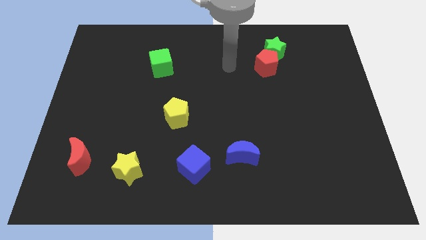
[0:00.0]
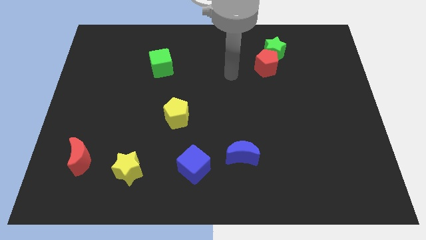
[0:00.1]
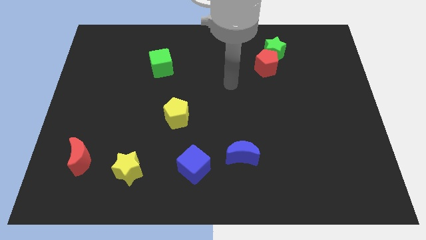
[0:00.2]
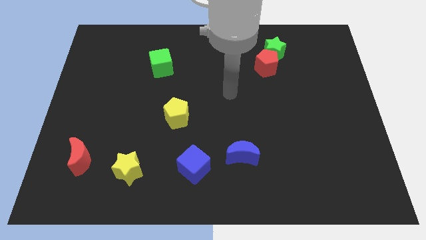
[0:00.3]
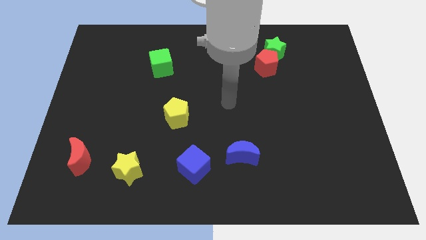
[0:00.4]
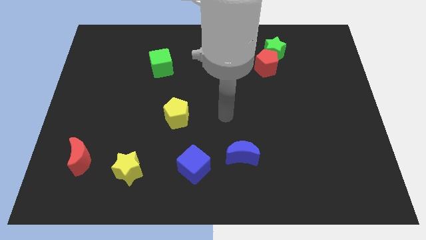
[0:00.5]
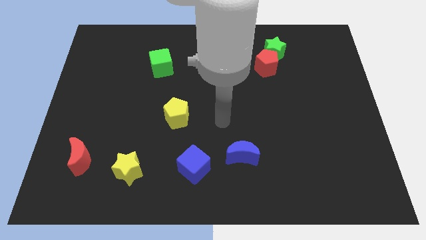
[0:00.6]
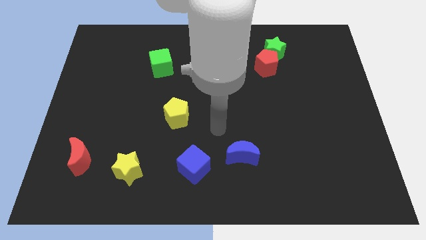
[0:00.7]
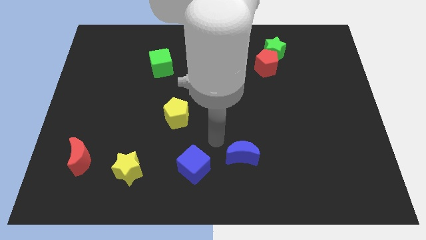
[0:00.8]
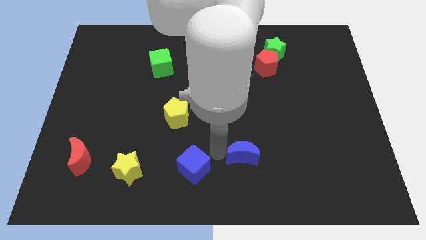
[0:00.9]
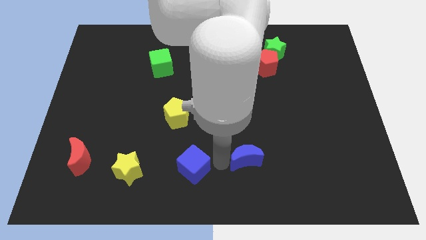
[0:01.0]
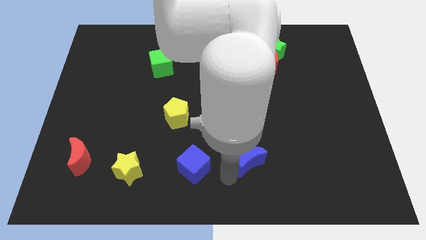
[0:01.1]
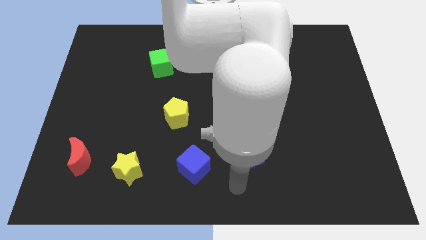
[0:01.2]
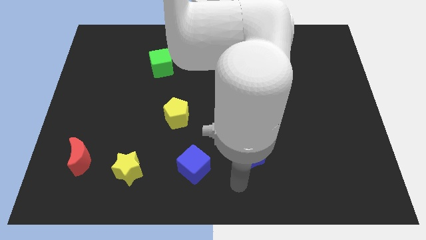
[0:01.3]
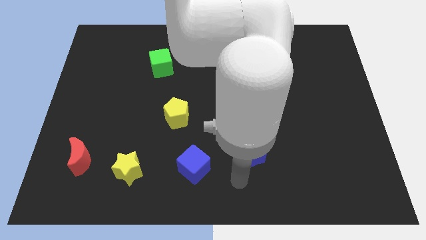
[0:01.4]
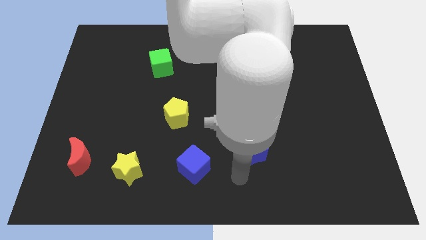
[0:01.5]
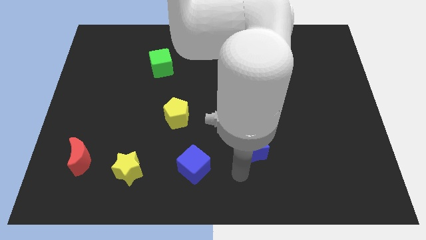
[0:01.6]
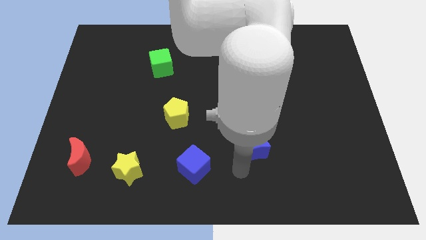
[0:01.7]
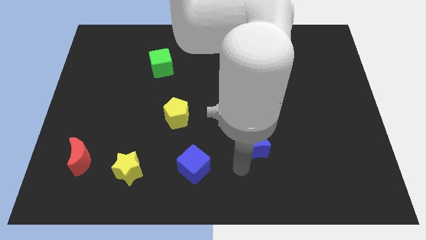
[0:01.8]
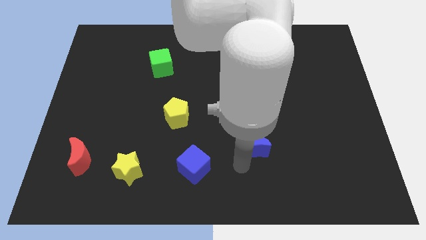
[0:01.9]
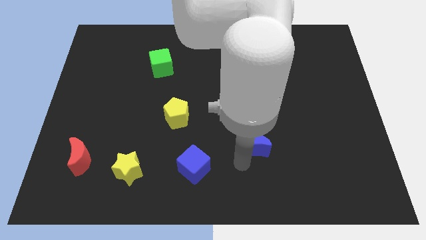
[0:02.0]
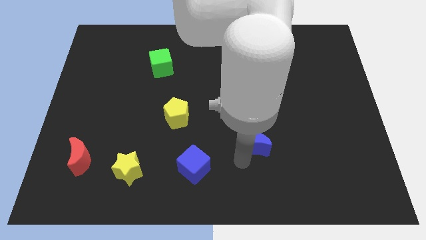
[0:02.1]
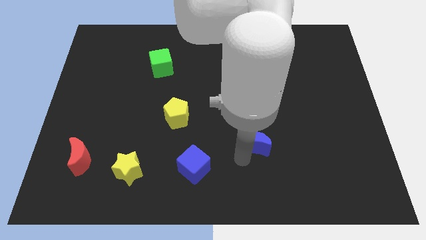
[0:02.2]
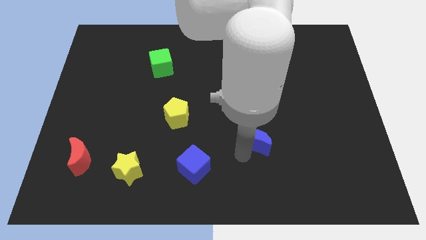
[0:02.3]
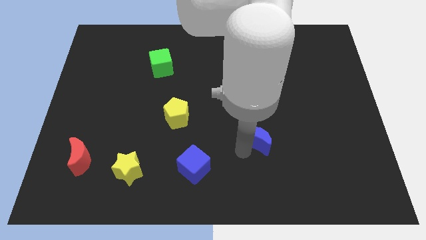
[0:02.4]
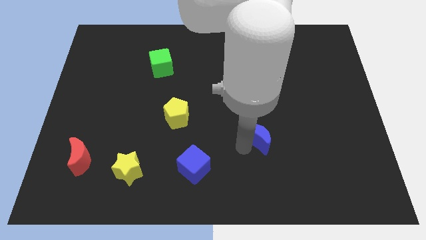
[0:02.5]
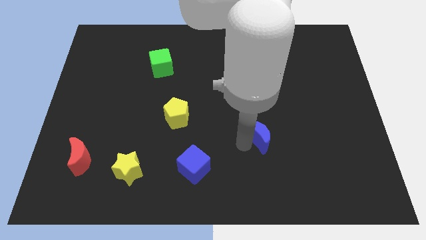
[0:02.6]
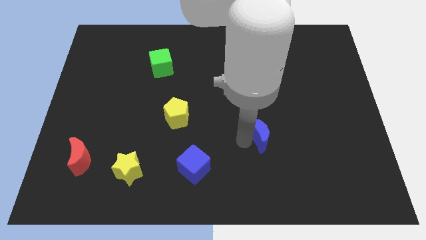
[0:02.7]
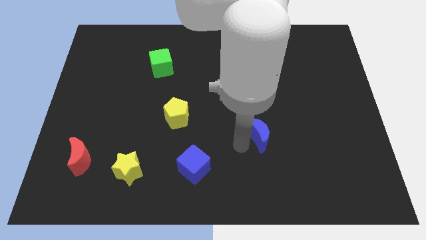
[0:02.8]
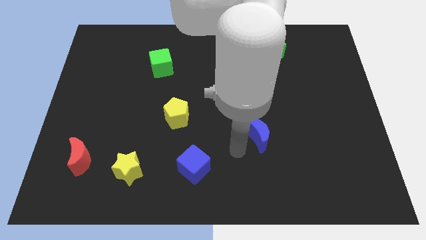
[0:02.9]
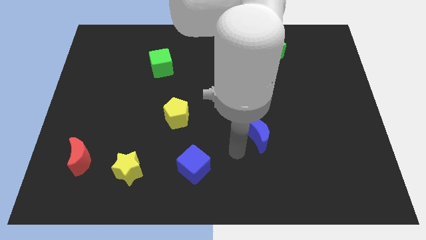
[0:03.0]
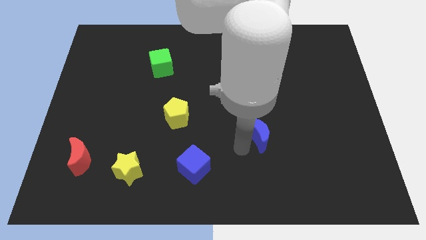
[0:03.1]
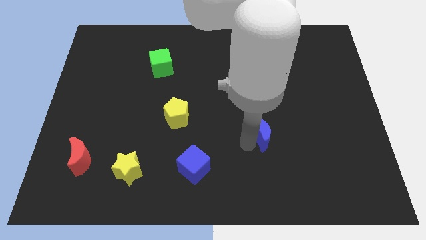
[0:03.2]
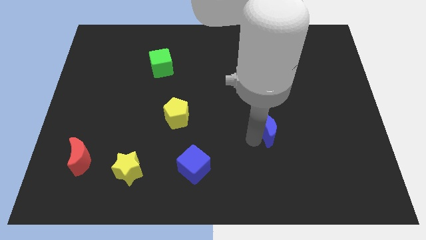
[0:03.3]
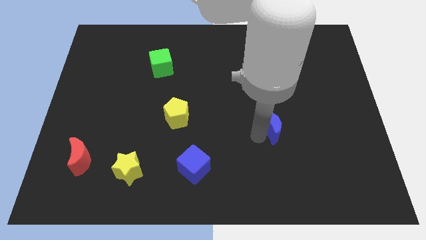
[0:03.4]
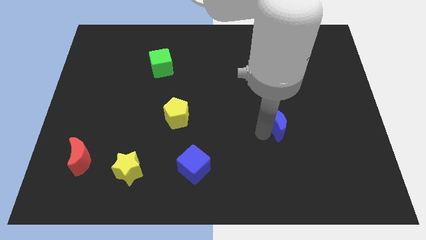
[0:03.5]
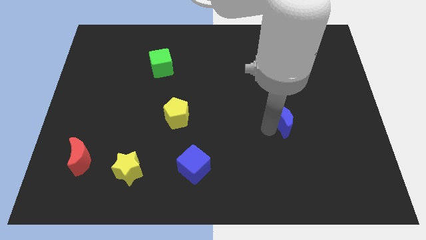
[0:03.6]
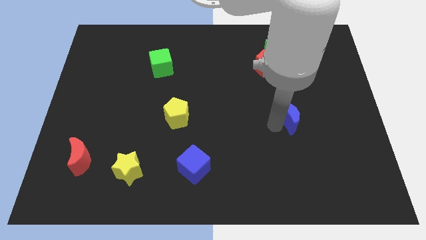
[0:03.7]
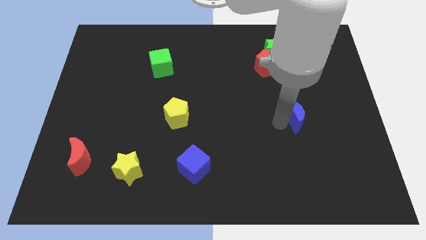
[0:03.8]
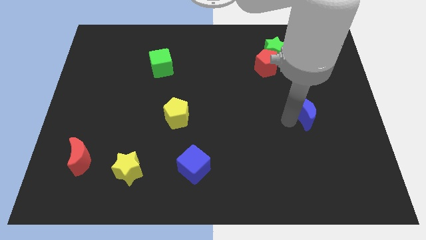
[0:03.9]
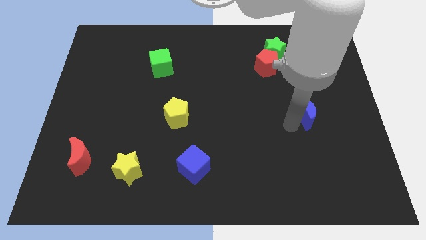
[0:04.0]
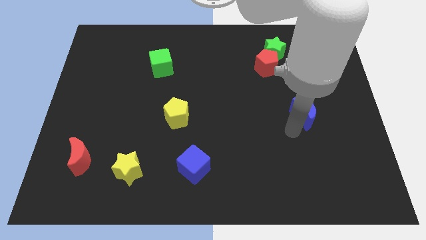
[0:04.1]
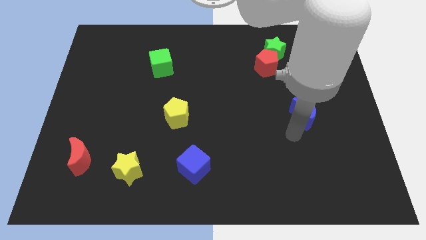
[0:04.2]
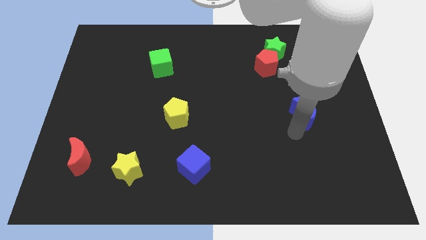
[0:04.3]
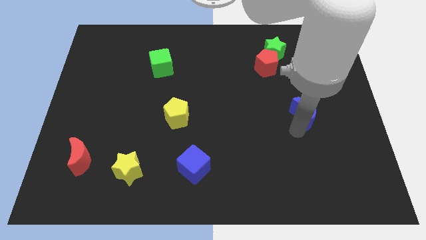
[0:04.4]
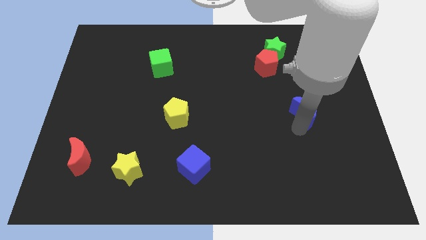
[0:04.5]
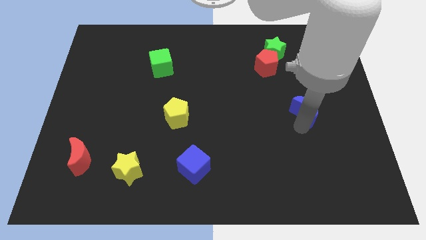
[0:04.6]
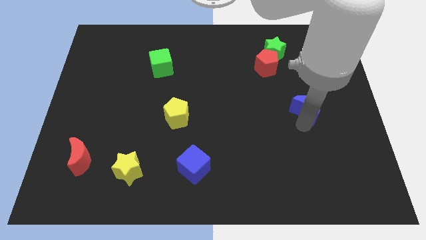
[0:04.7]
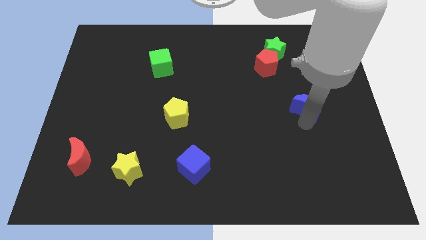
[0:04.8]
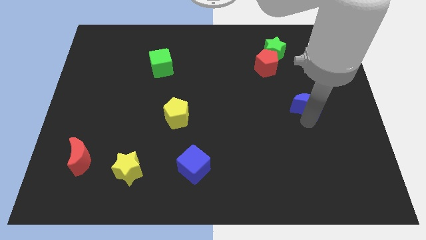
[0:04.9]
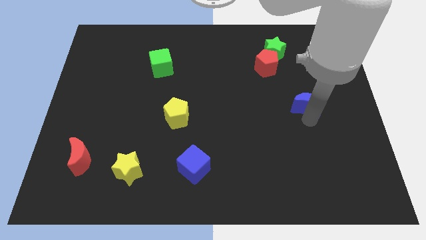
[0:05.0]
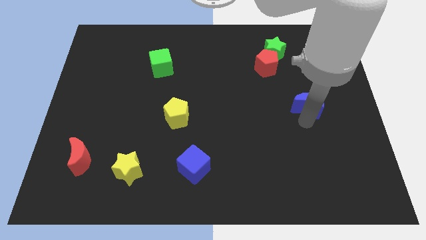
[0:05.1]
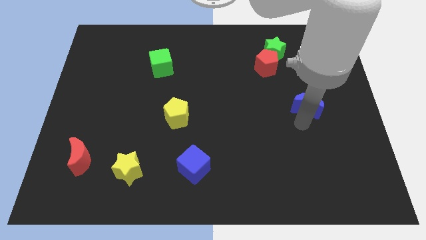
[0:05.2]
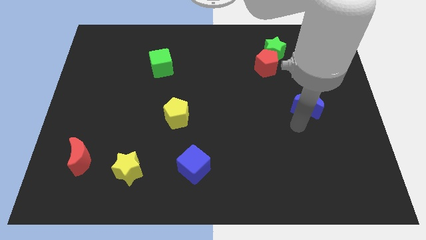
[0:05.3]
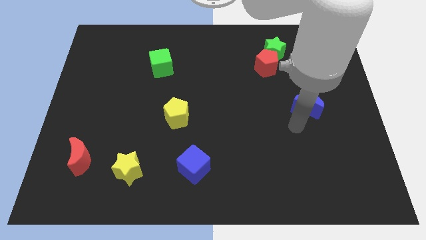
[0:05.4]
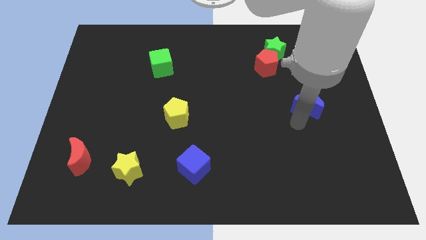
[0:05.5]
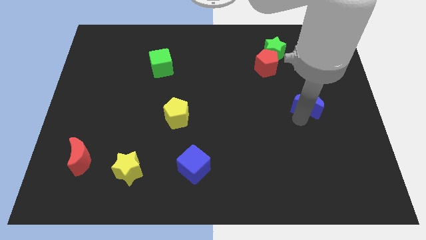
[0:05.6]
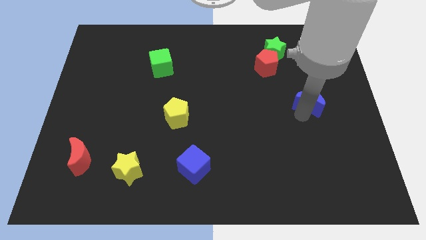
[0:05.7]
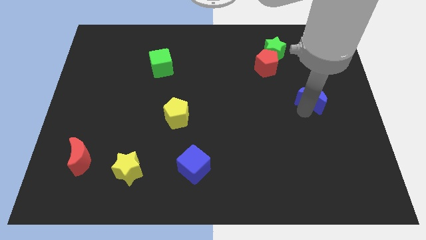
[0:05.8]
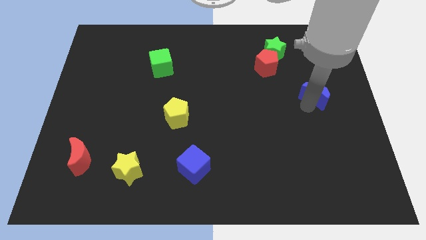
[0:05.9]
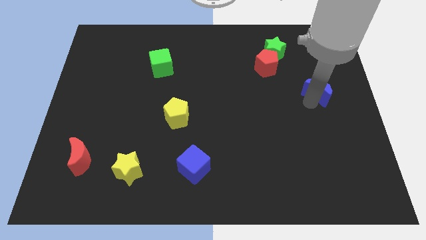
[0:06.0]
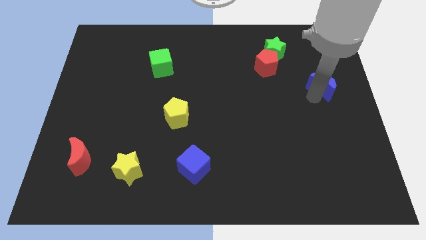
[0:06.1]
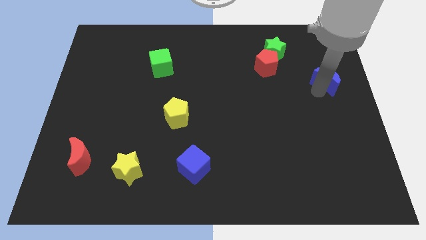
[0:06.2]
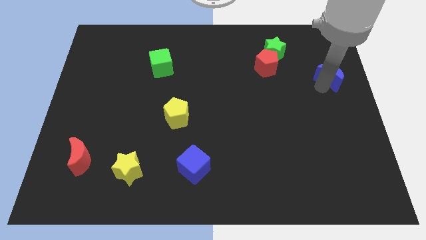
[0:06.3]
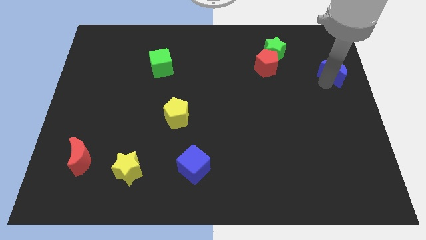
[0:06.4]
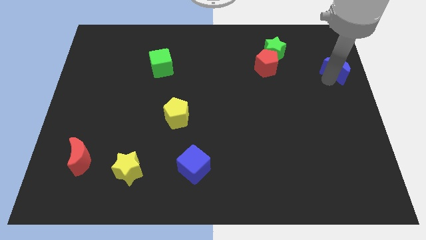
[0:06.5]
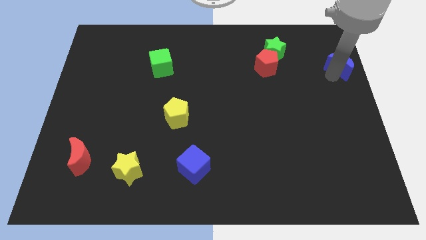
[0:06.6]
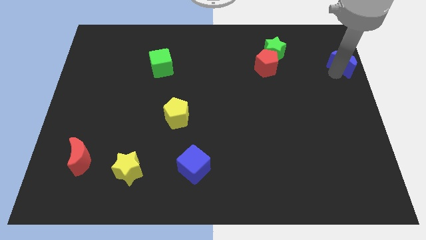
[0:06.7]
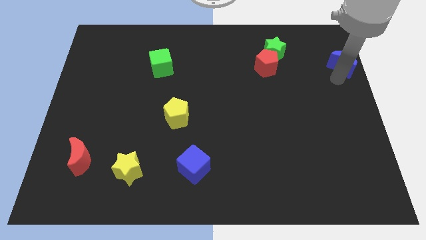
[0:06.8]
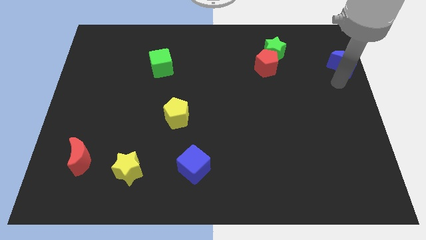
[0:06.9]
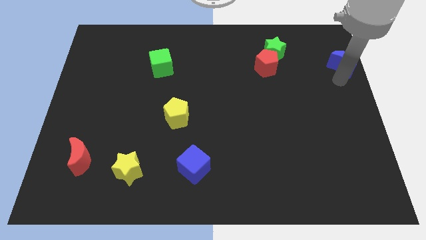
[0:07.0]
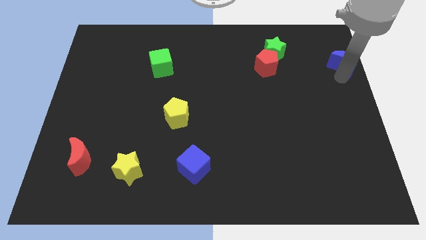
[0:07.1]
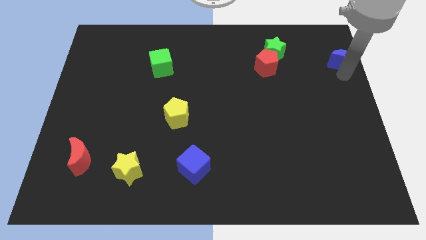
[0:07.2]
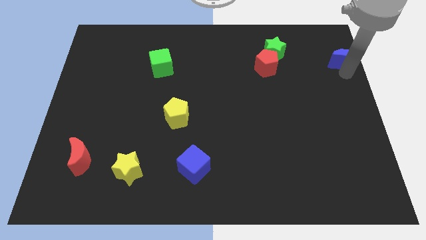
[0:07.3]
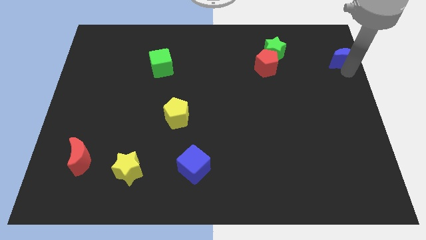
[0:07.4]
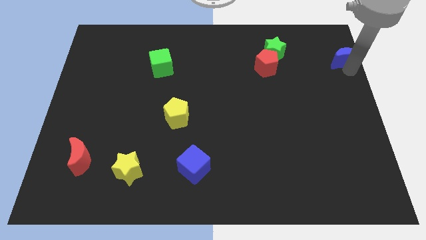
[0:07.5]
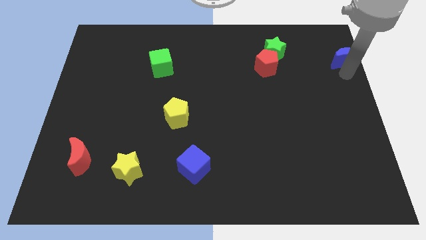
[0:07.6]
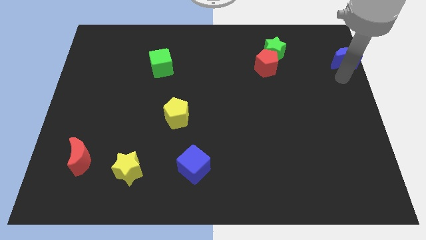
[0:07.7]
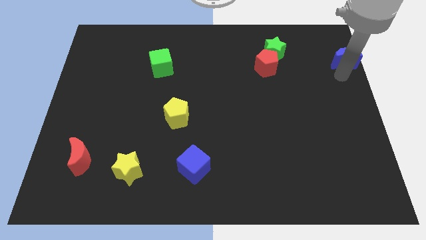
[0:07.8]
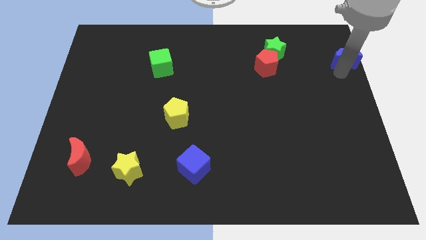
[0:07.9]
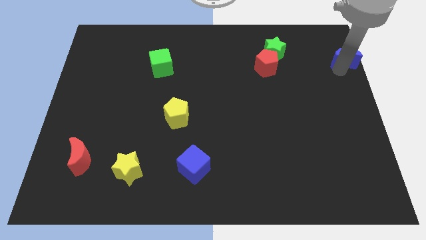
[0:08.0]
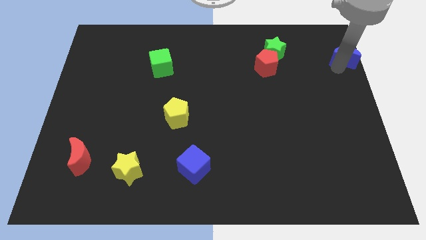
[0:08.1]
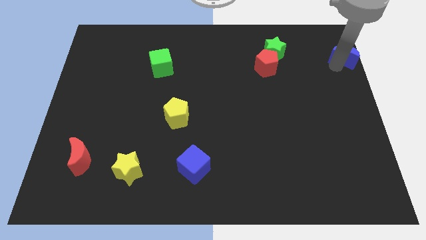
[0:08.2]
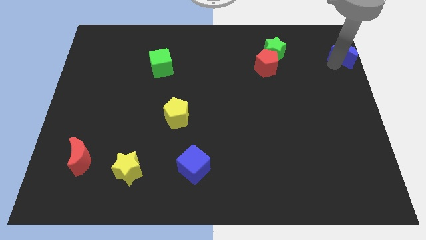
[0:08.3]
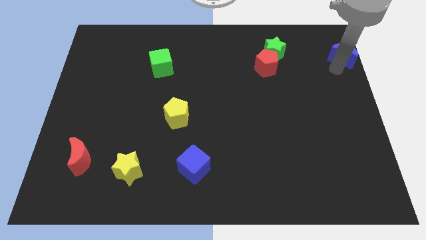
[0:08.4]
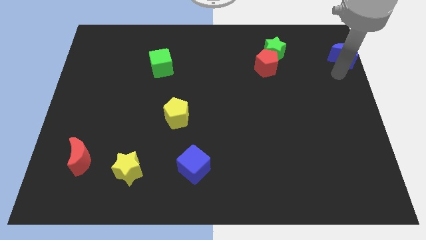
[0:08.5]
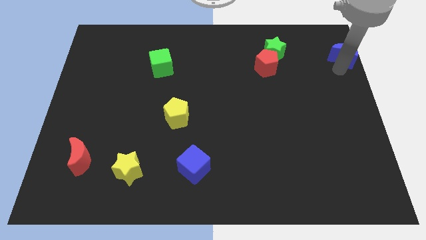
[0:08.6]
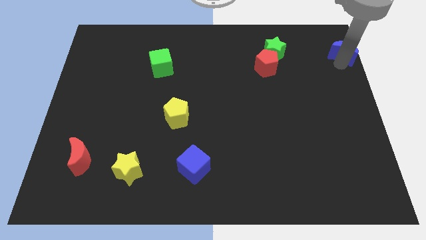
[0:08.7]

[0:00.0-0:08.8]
put the blue moon to the upper right corner
